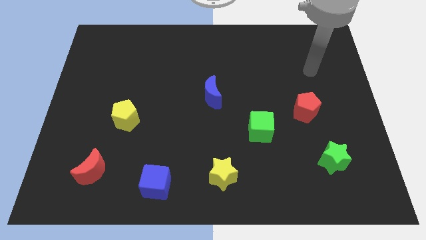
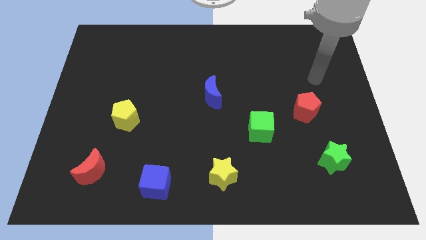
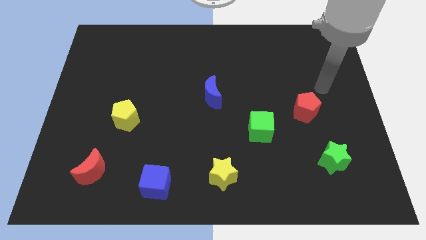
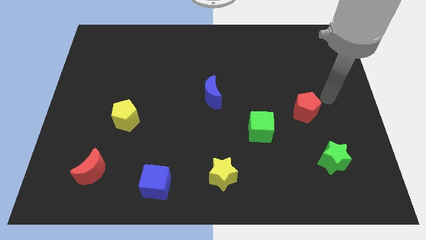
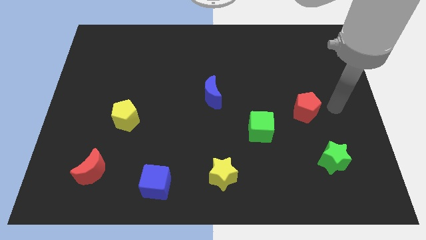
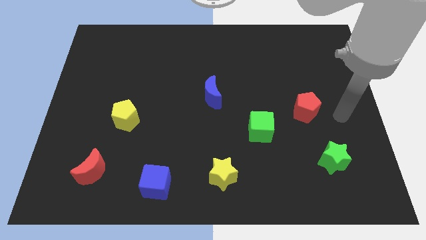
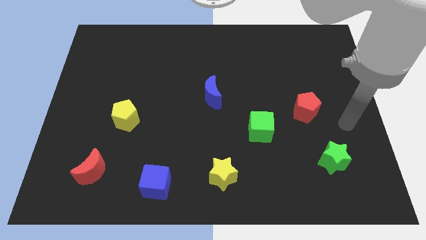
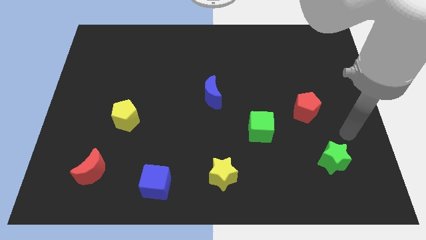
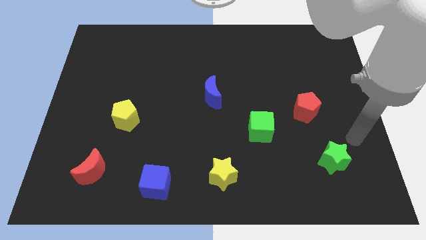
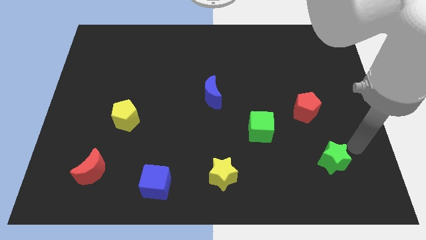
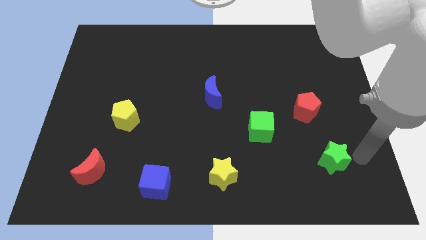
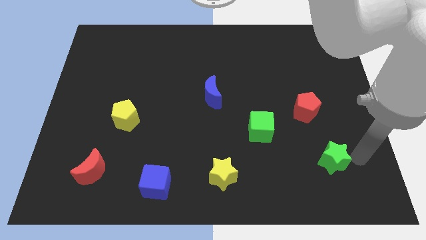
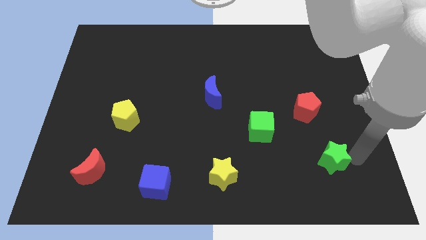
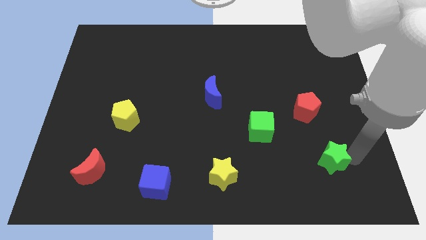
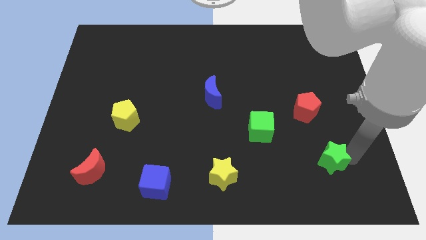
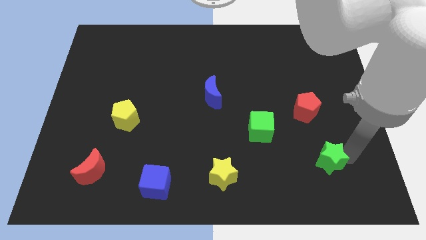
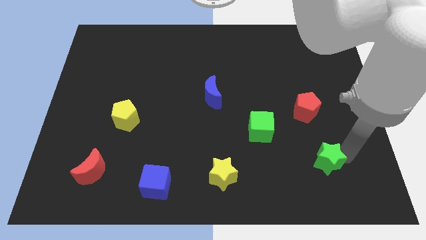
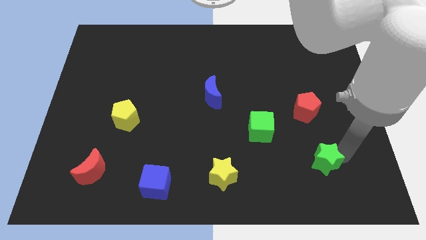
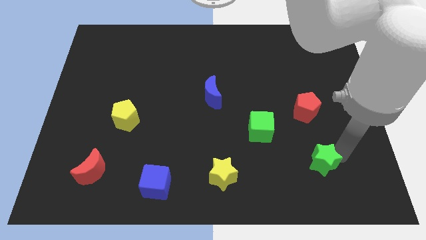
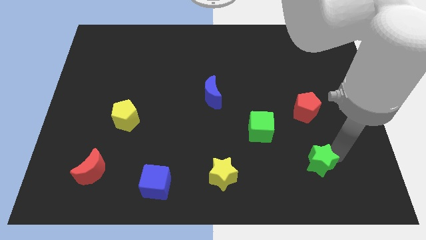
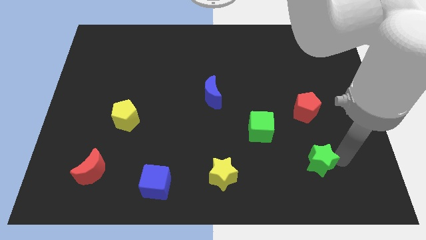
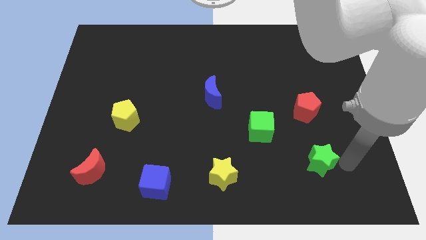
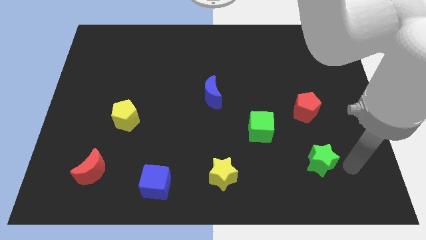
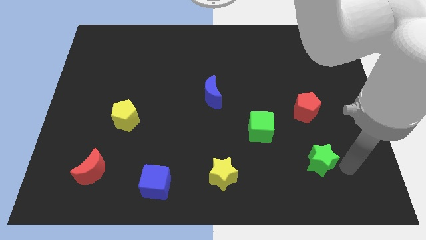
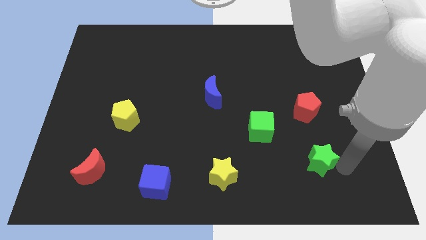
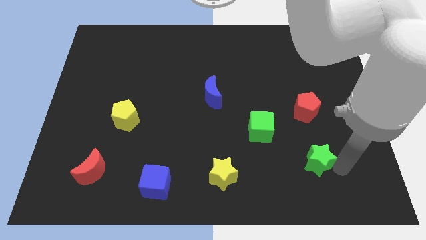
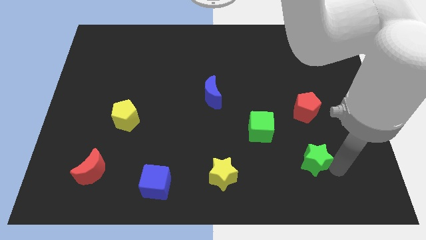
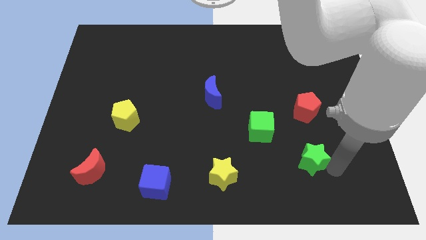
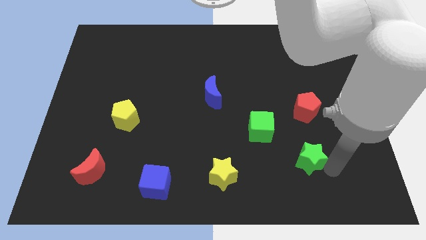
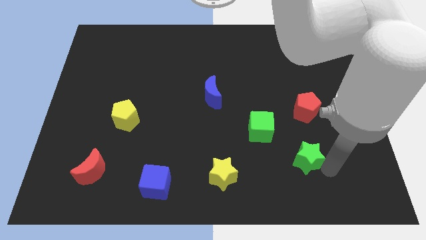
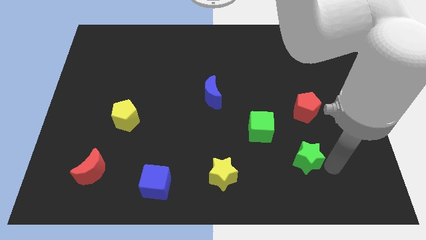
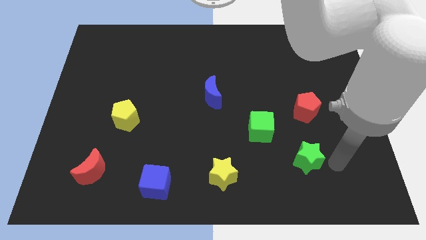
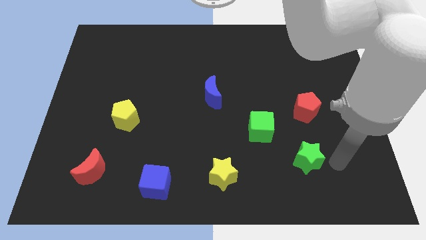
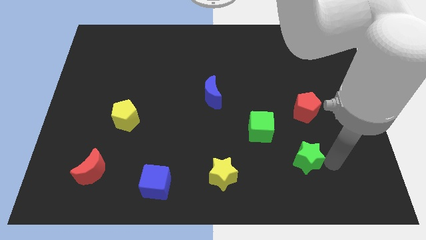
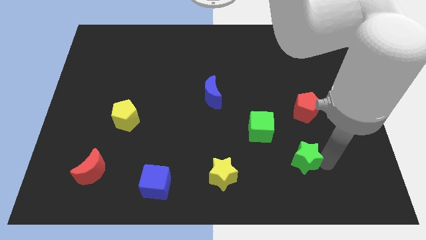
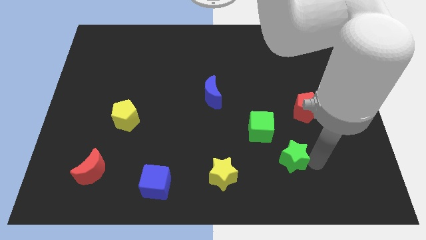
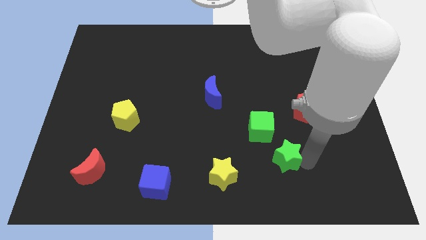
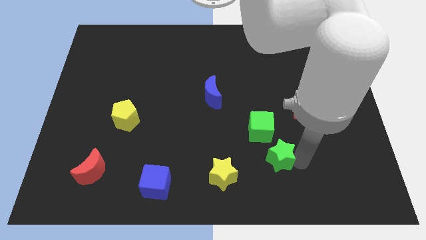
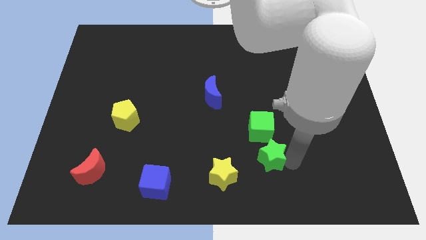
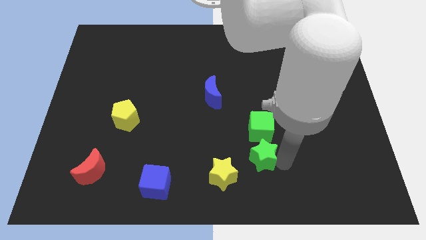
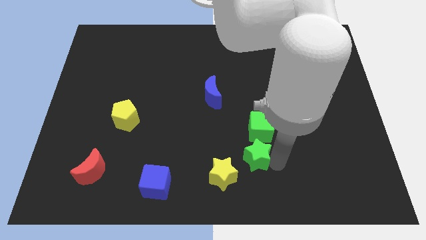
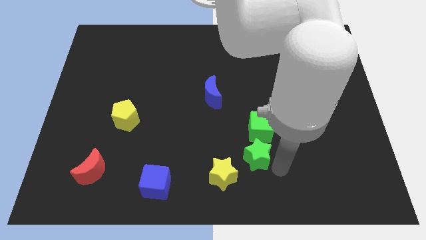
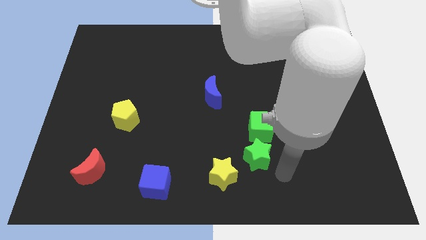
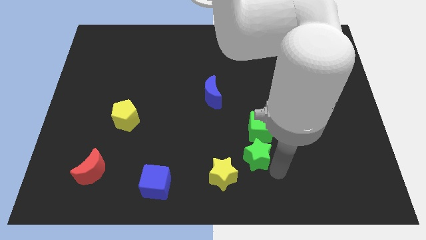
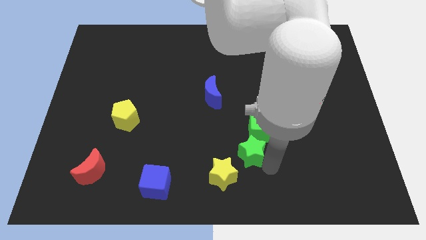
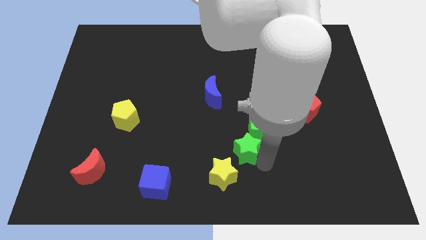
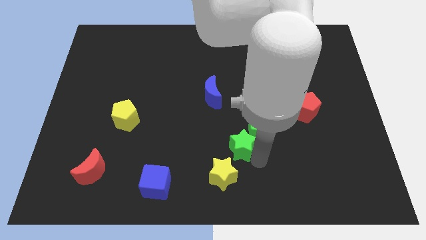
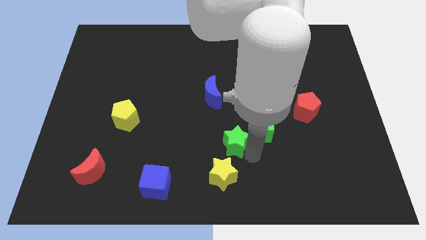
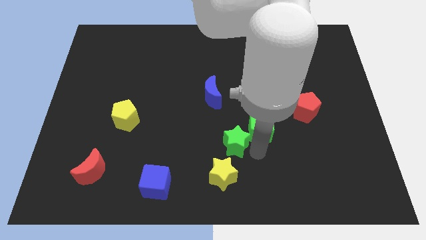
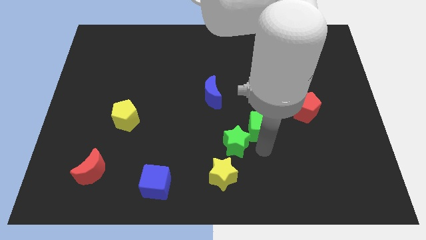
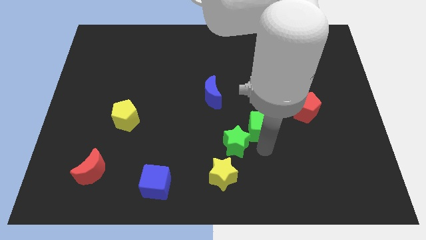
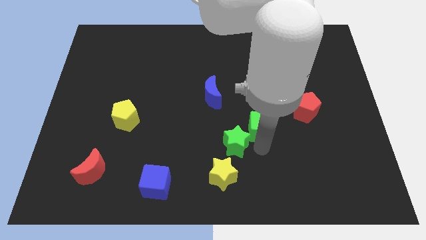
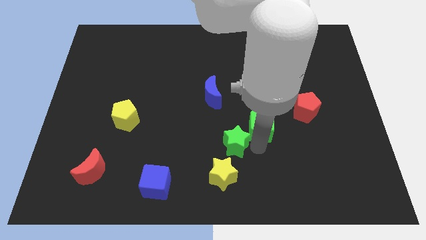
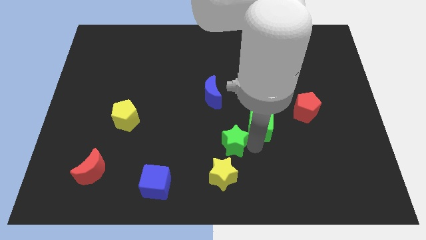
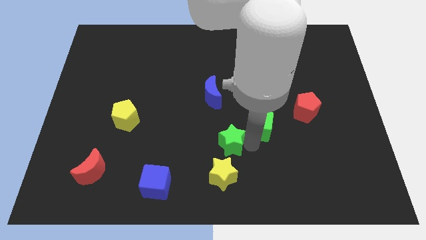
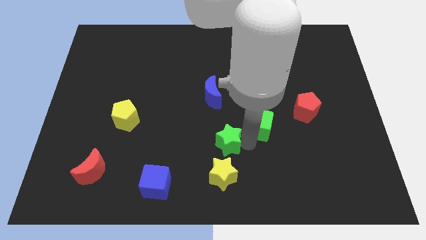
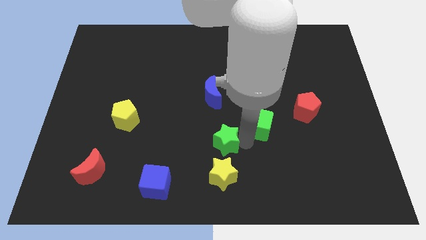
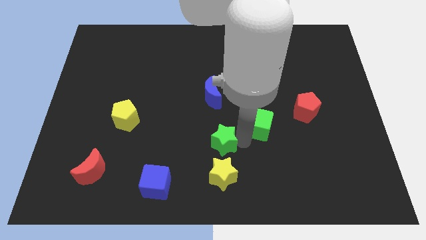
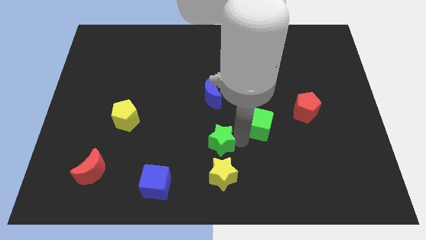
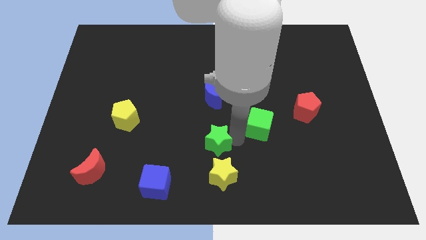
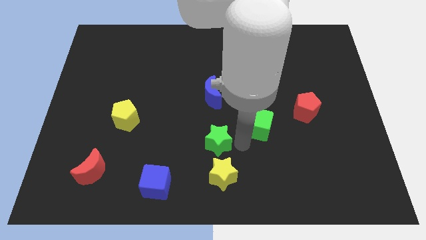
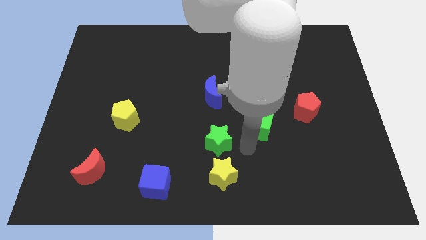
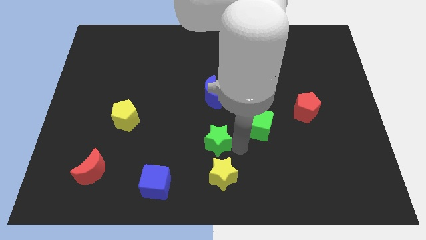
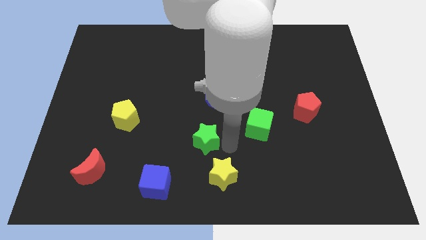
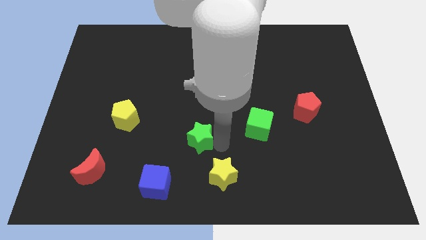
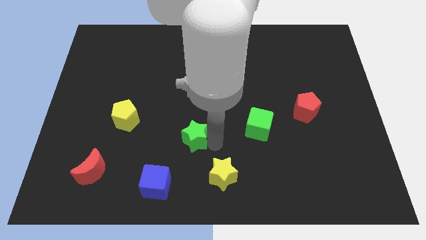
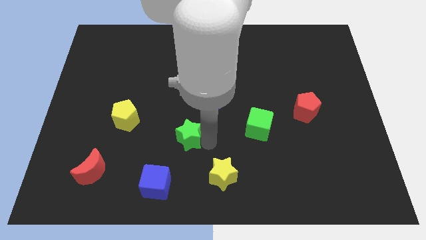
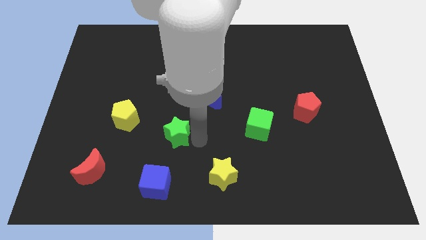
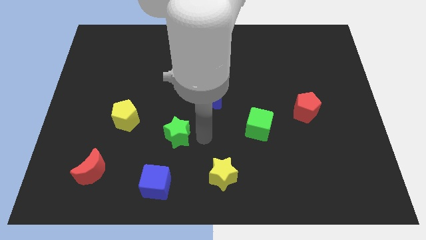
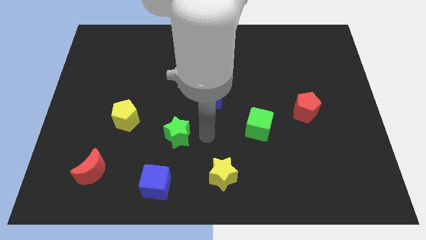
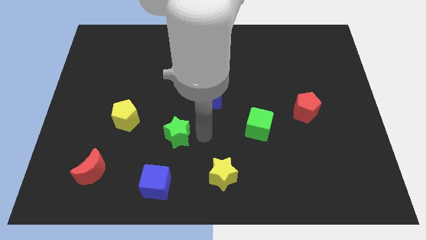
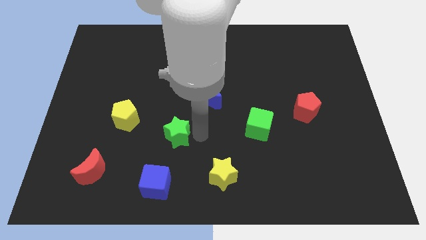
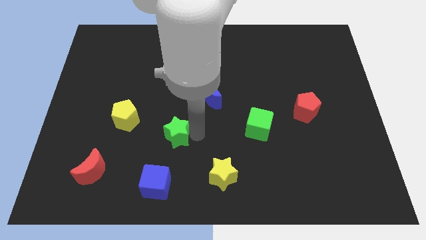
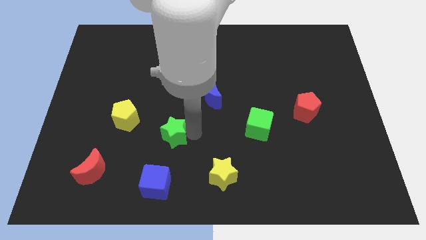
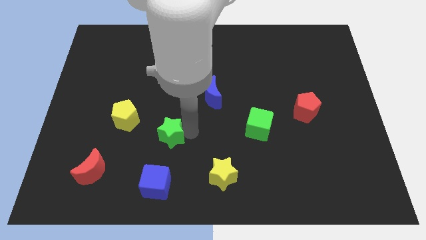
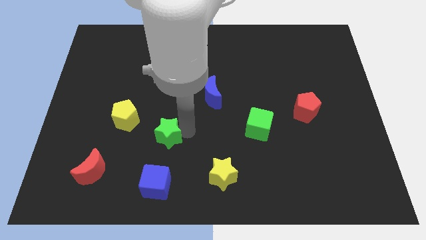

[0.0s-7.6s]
move the green star to the bottom right of the yellow pentagon
